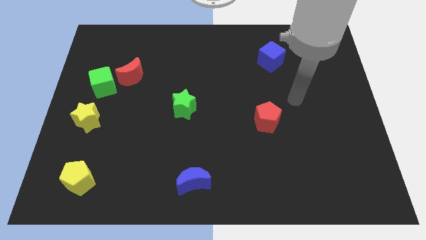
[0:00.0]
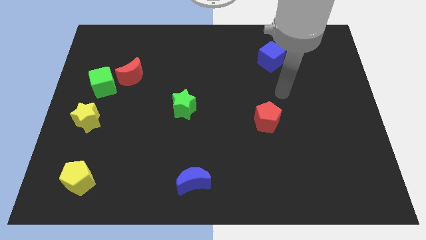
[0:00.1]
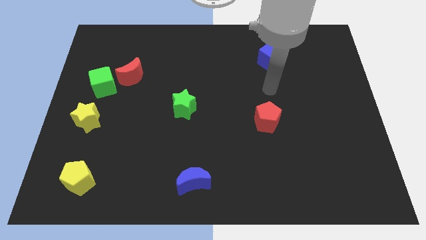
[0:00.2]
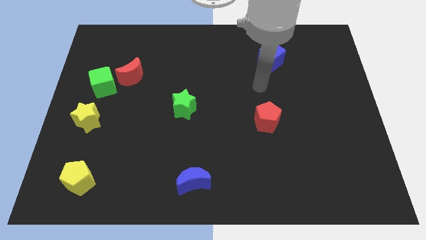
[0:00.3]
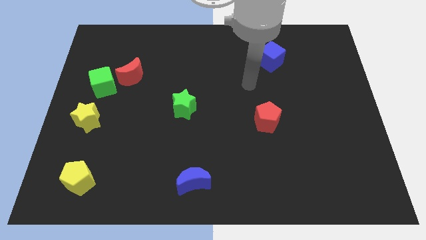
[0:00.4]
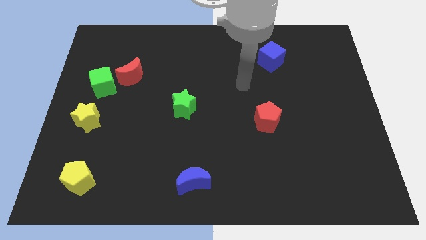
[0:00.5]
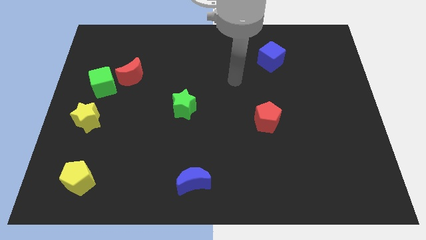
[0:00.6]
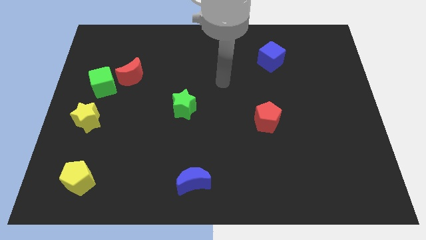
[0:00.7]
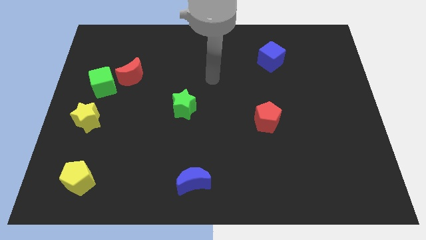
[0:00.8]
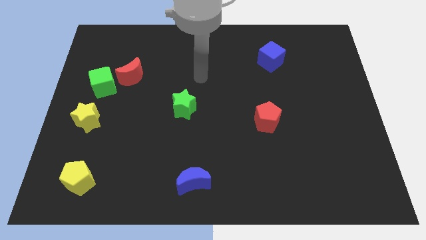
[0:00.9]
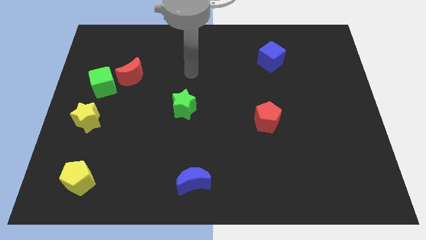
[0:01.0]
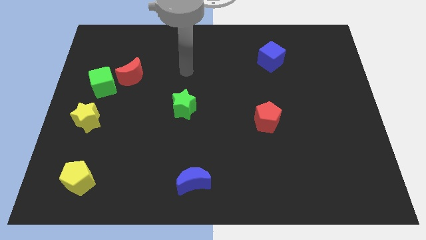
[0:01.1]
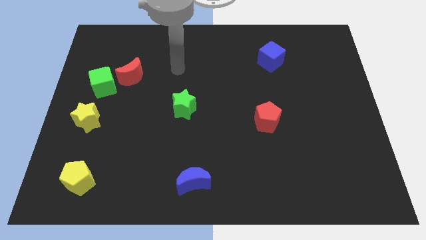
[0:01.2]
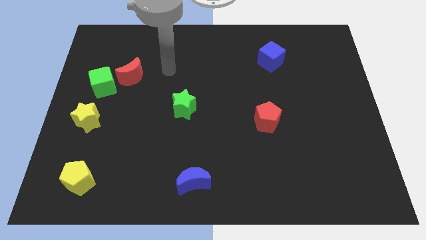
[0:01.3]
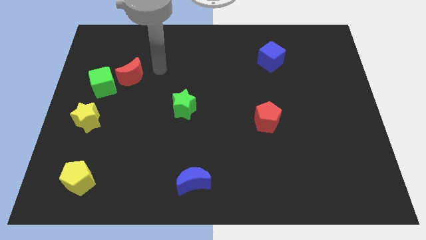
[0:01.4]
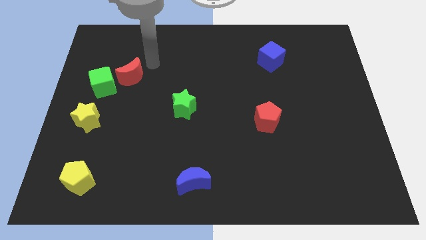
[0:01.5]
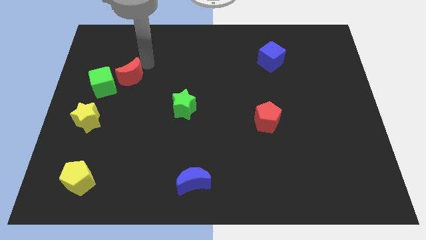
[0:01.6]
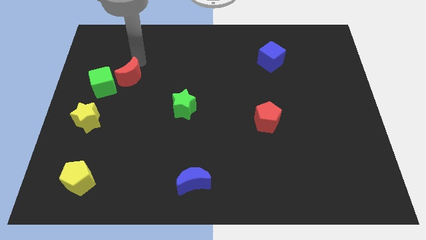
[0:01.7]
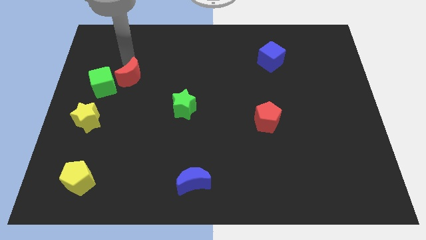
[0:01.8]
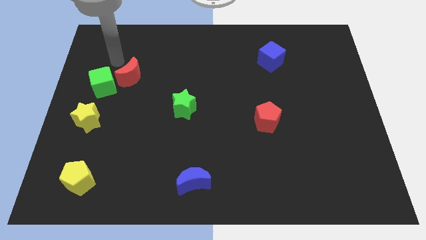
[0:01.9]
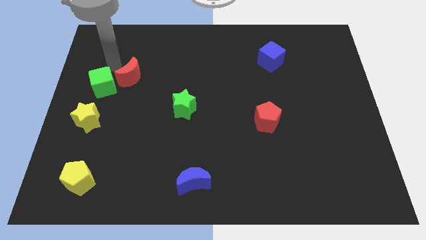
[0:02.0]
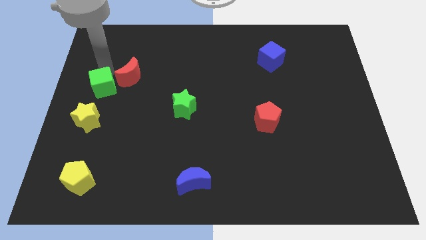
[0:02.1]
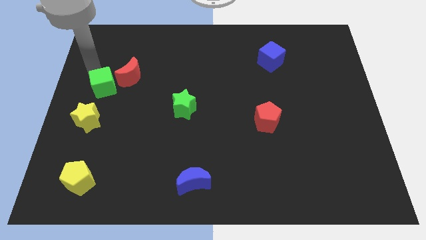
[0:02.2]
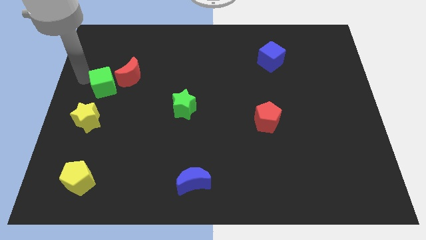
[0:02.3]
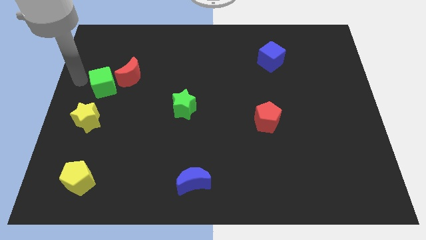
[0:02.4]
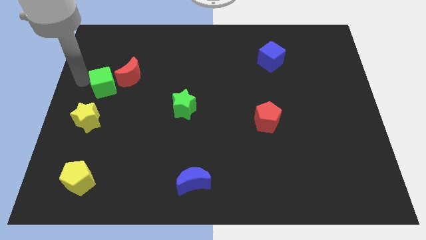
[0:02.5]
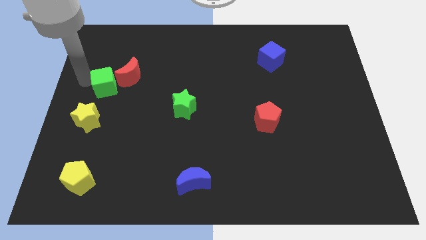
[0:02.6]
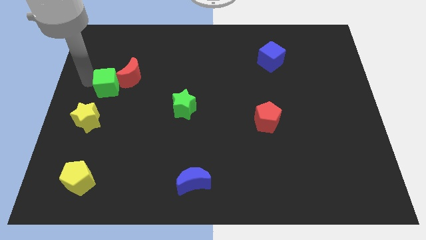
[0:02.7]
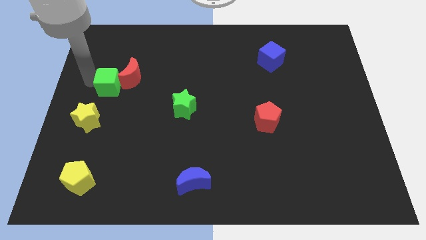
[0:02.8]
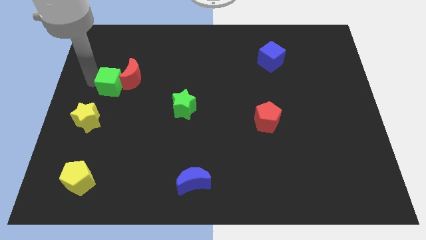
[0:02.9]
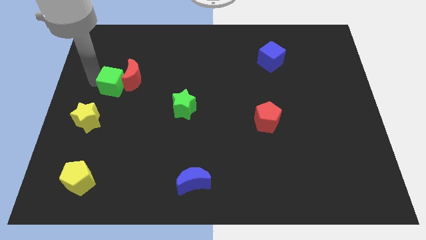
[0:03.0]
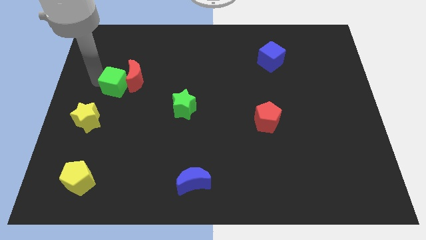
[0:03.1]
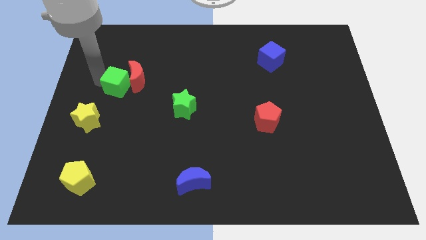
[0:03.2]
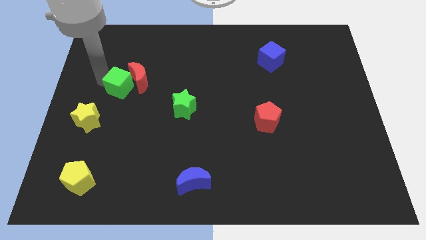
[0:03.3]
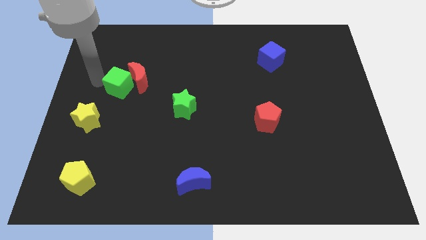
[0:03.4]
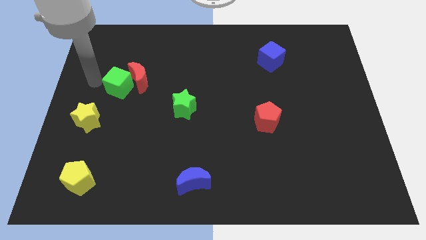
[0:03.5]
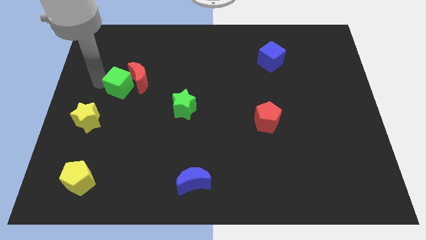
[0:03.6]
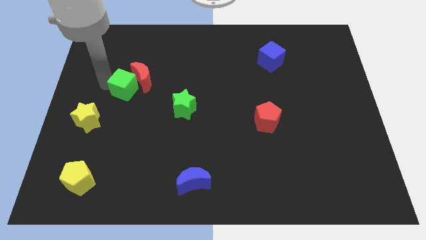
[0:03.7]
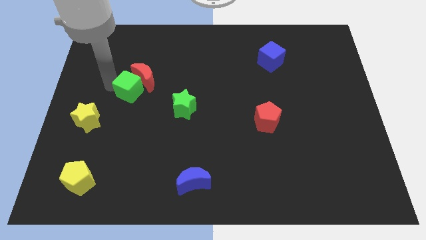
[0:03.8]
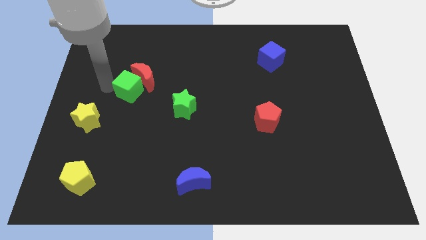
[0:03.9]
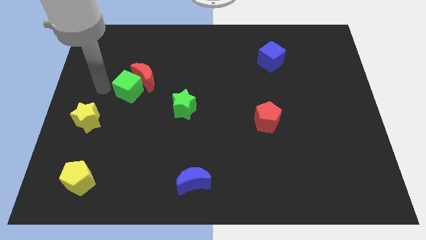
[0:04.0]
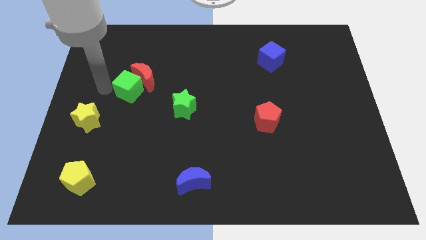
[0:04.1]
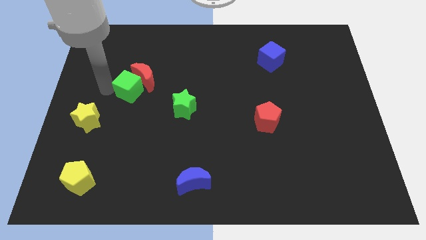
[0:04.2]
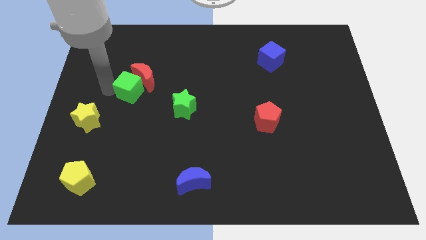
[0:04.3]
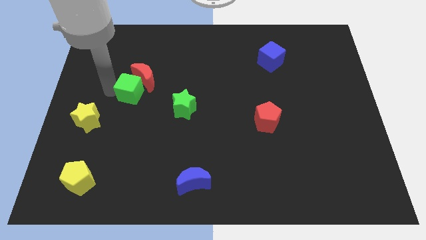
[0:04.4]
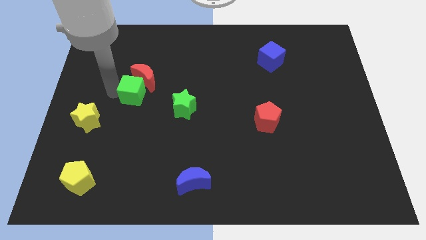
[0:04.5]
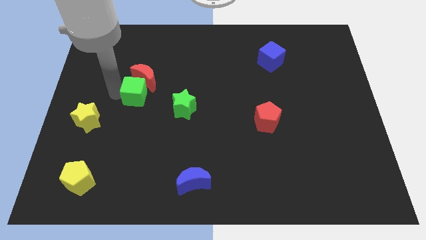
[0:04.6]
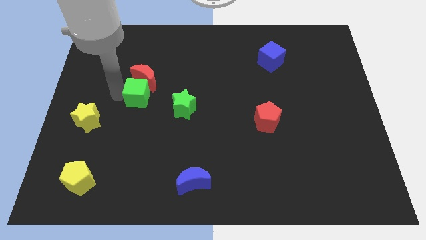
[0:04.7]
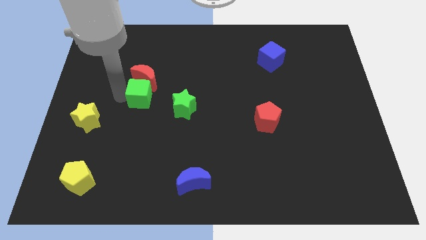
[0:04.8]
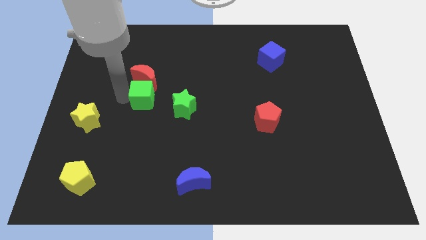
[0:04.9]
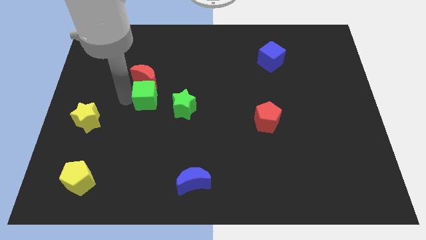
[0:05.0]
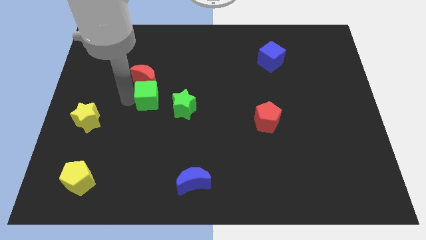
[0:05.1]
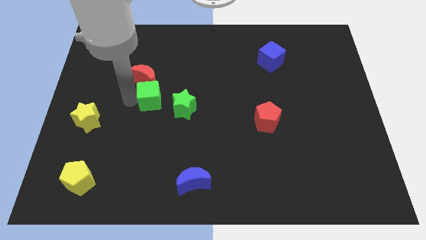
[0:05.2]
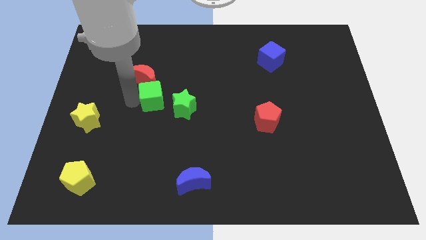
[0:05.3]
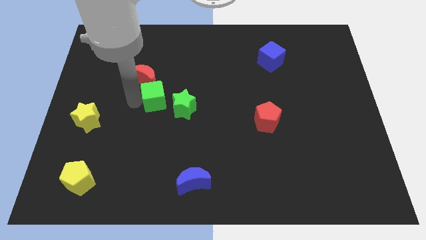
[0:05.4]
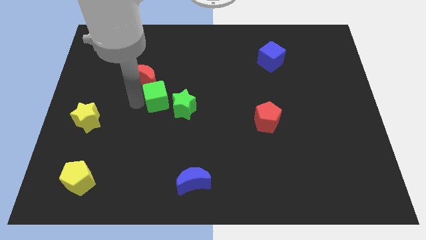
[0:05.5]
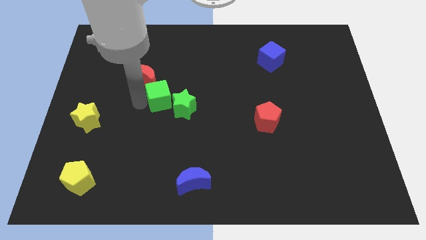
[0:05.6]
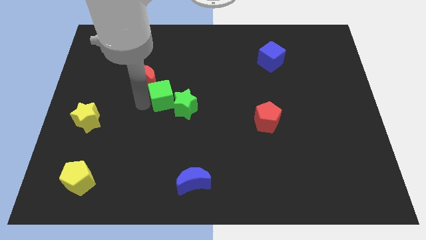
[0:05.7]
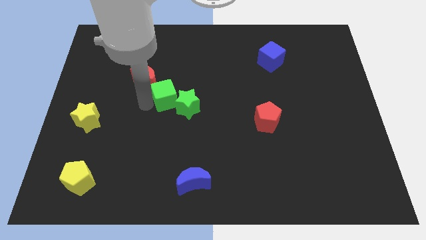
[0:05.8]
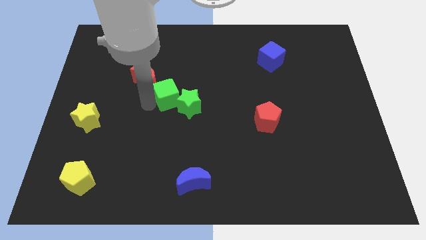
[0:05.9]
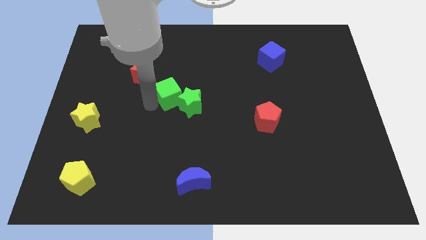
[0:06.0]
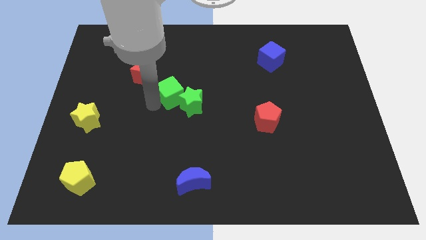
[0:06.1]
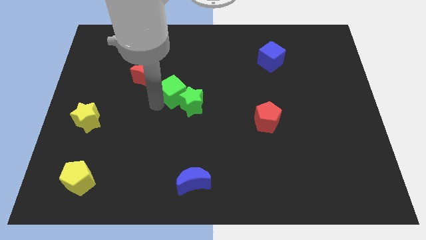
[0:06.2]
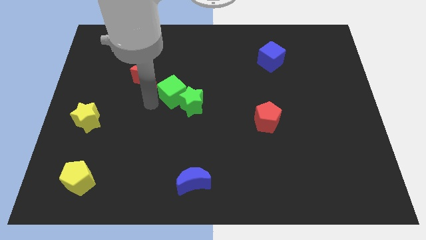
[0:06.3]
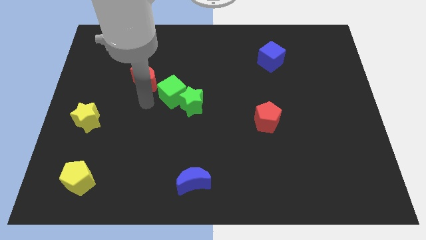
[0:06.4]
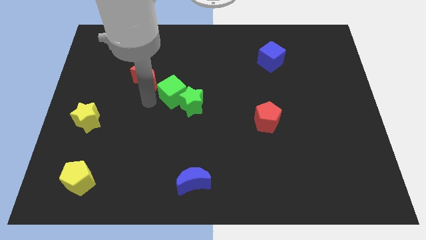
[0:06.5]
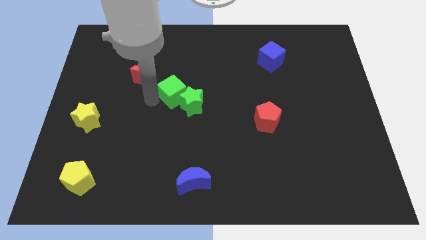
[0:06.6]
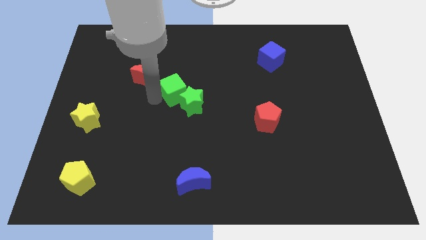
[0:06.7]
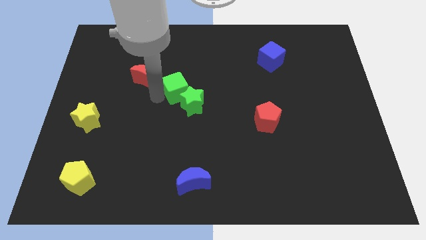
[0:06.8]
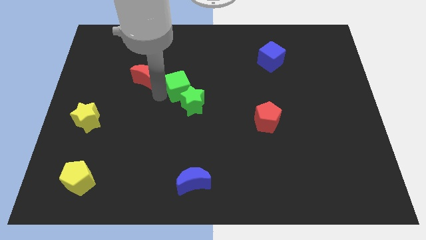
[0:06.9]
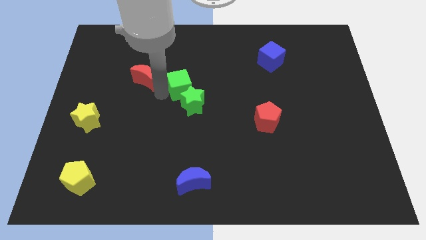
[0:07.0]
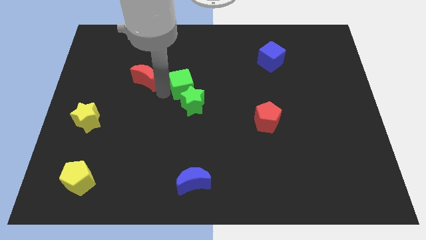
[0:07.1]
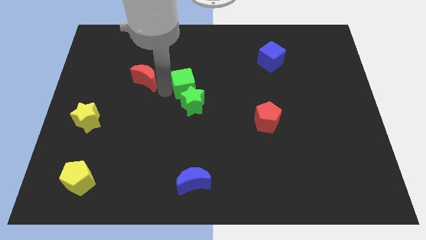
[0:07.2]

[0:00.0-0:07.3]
slide the green cube right

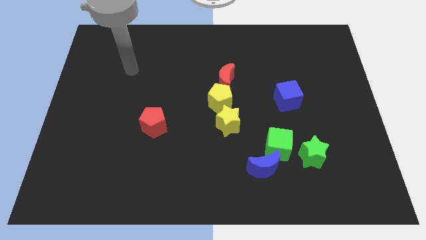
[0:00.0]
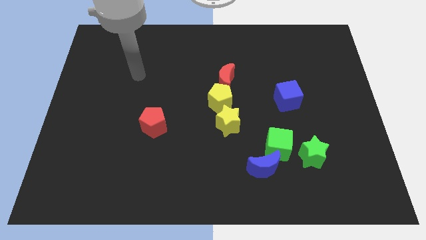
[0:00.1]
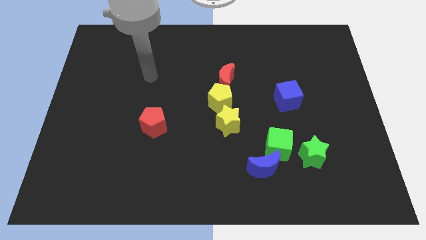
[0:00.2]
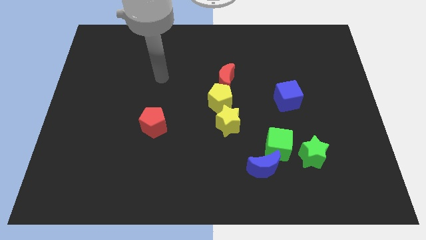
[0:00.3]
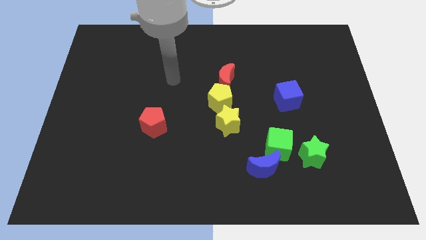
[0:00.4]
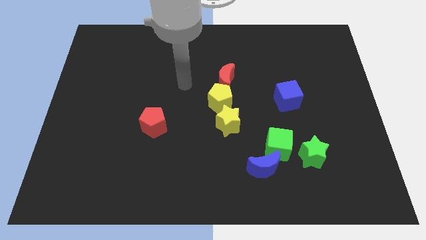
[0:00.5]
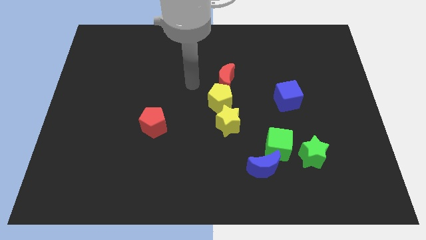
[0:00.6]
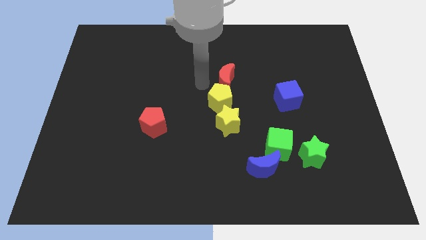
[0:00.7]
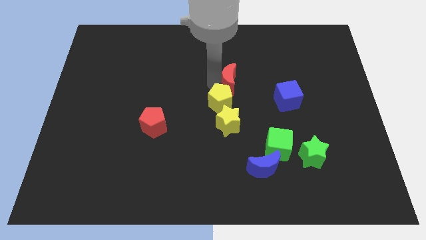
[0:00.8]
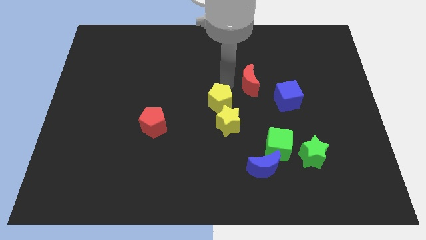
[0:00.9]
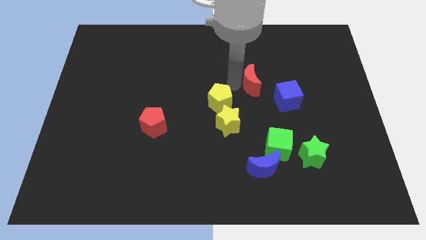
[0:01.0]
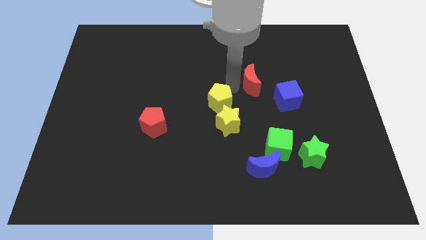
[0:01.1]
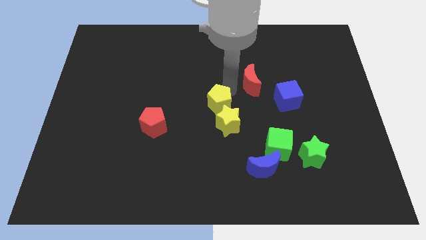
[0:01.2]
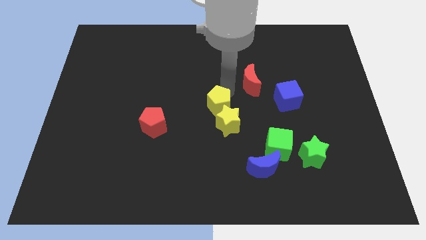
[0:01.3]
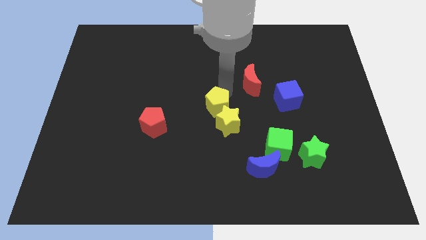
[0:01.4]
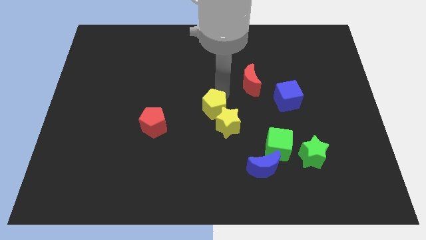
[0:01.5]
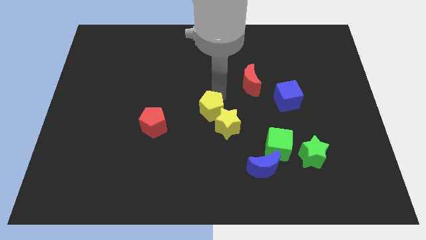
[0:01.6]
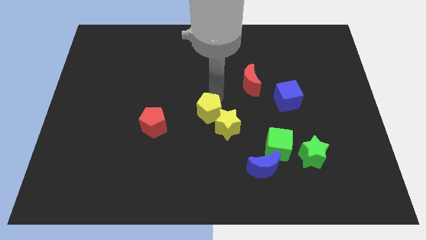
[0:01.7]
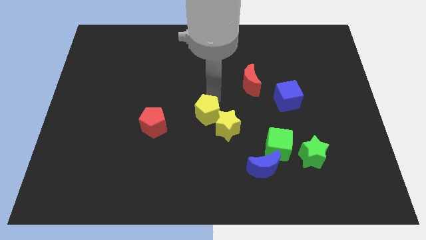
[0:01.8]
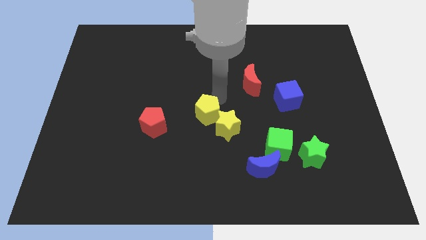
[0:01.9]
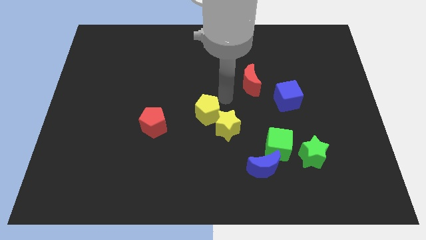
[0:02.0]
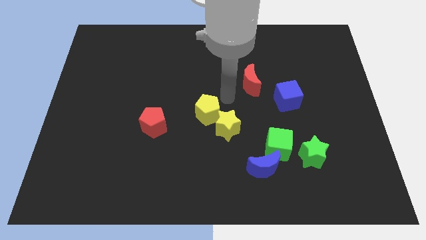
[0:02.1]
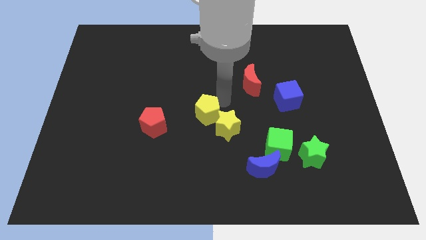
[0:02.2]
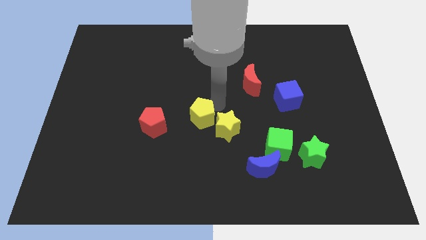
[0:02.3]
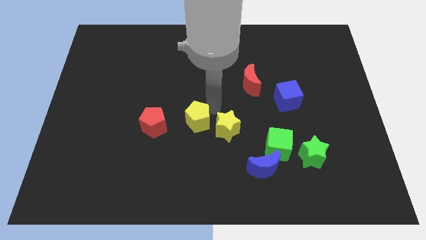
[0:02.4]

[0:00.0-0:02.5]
move the yellow pentagon a little bit downwards and to the left
